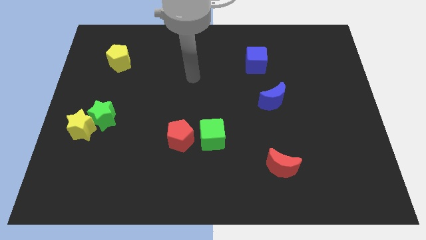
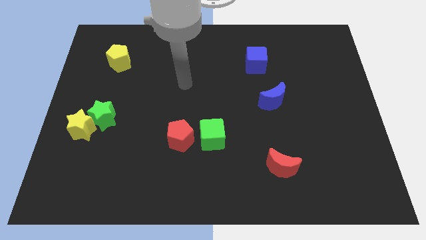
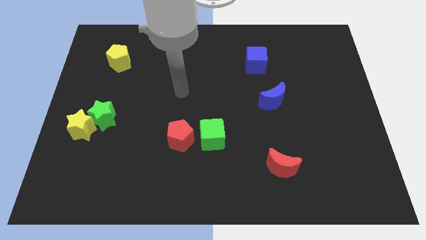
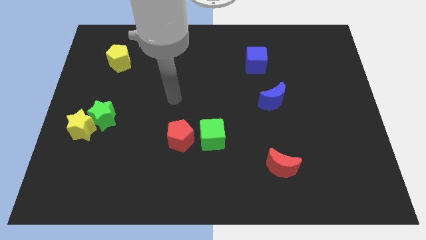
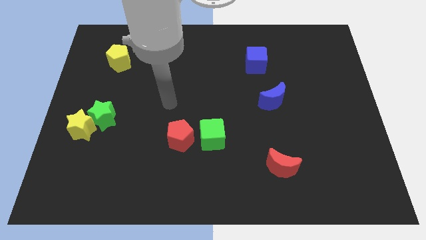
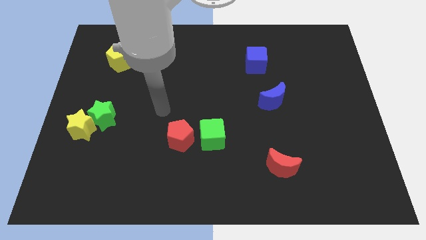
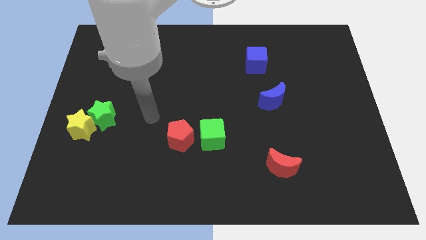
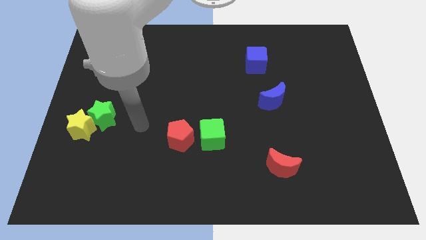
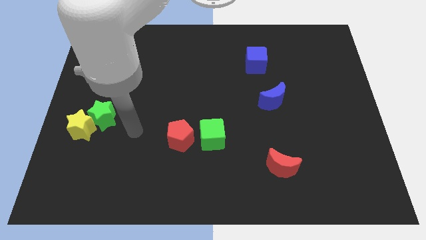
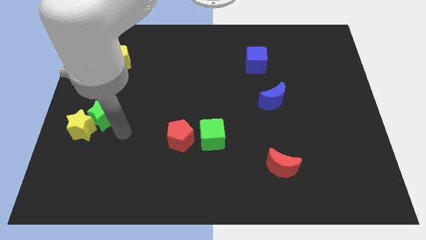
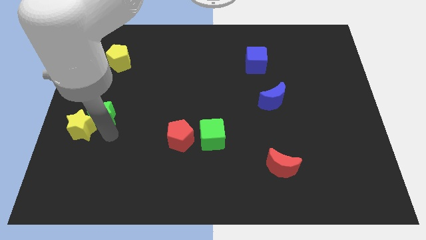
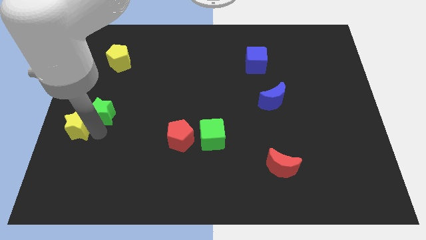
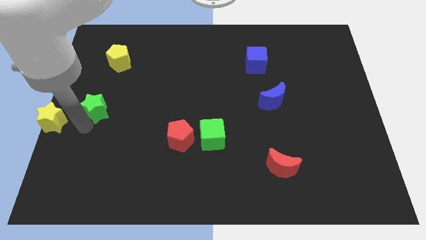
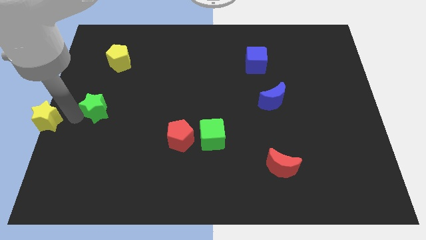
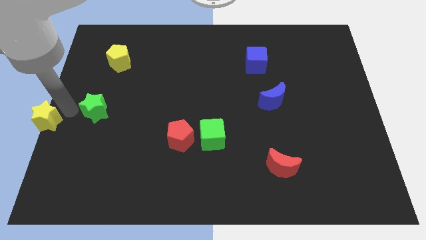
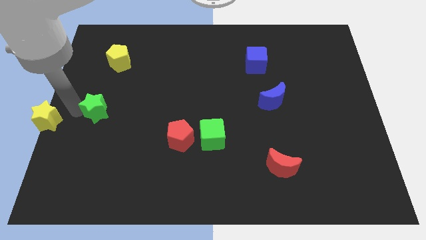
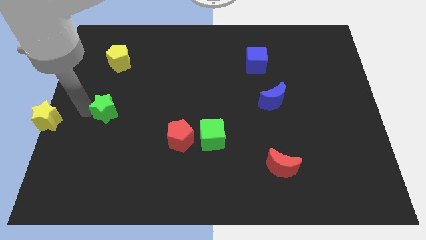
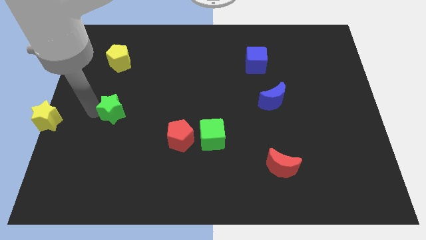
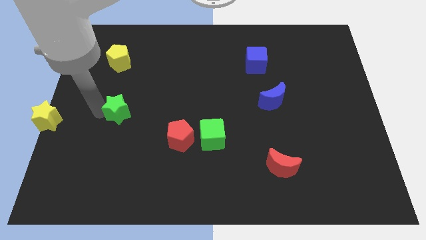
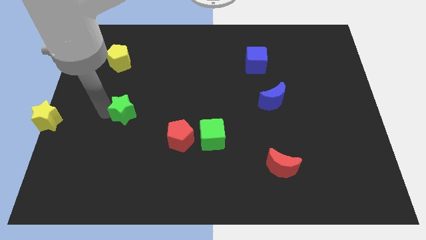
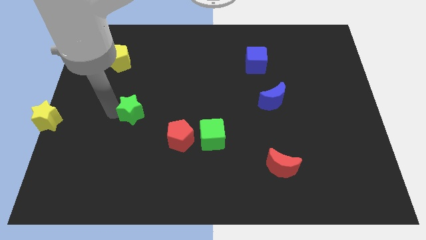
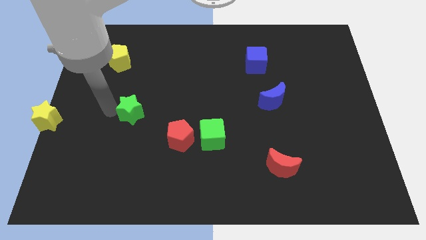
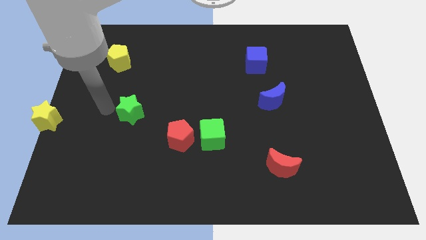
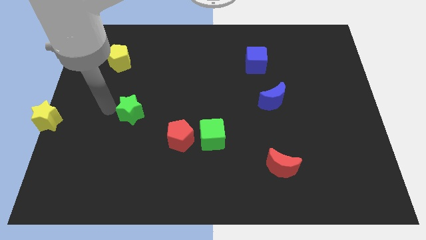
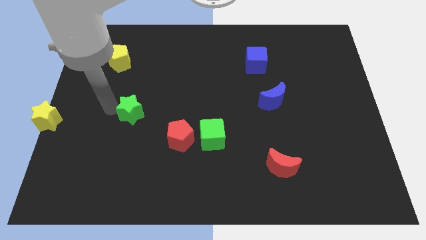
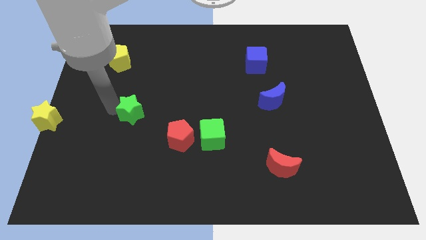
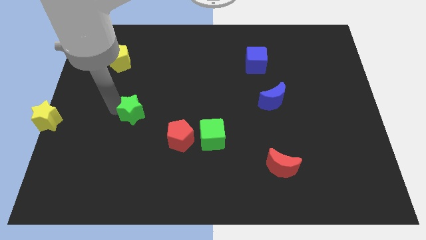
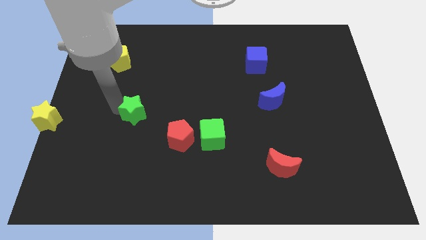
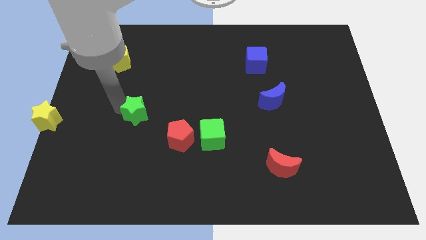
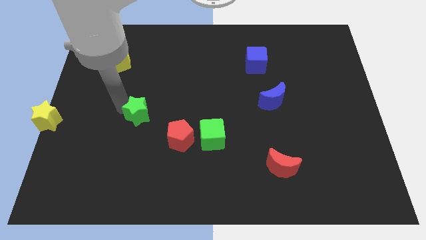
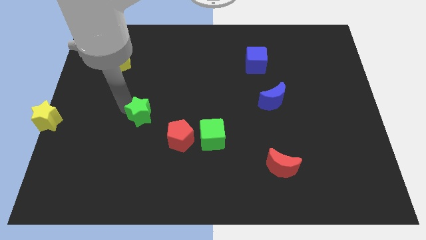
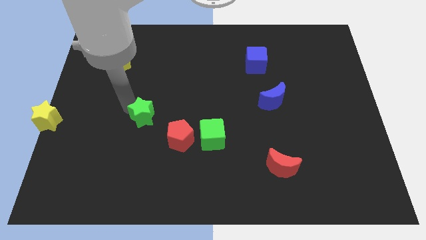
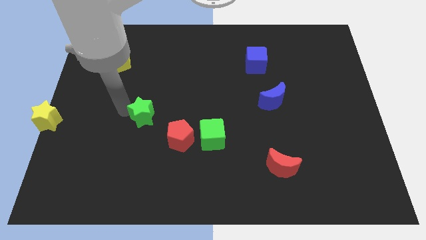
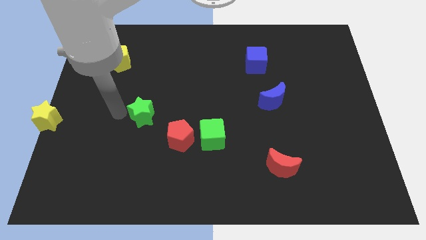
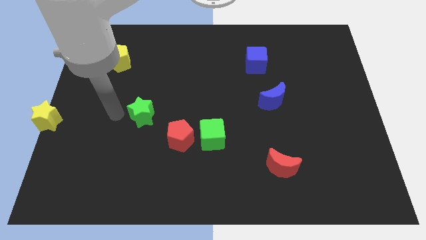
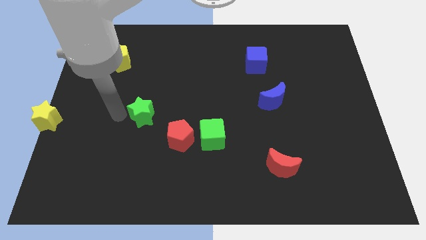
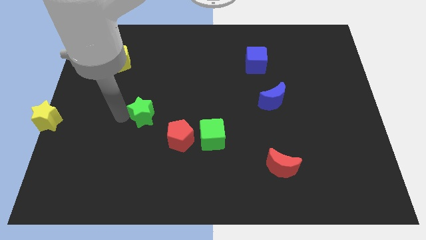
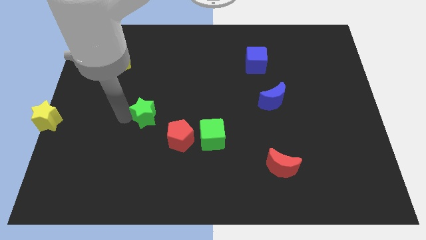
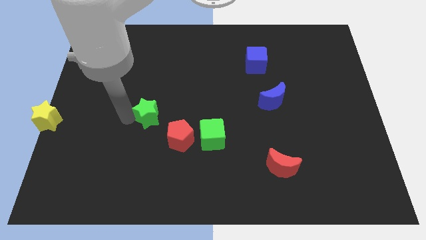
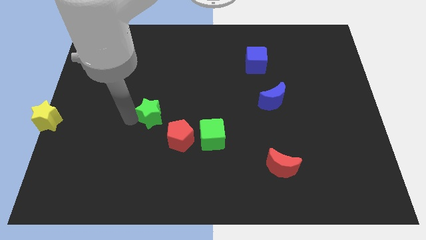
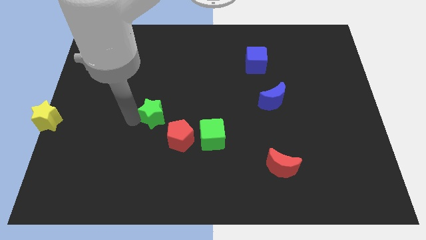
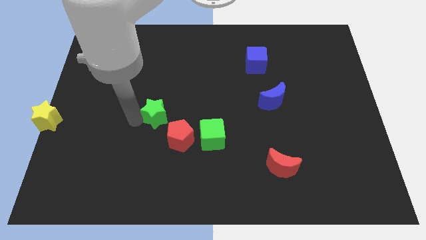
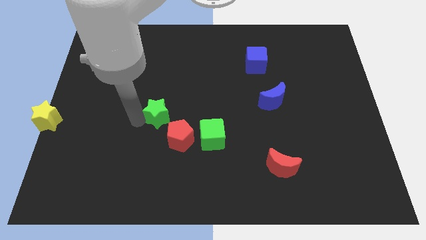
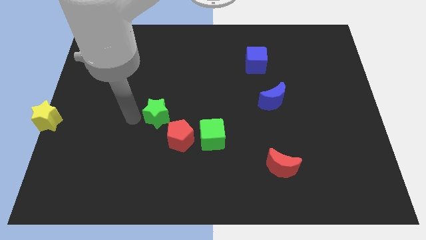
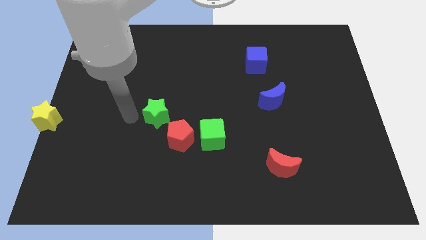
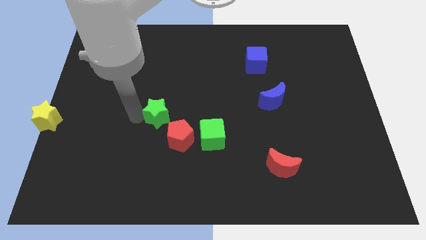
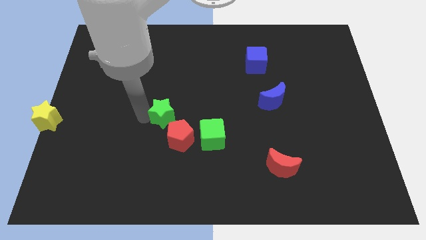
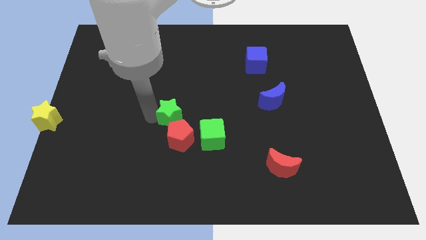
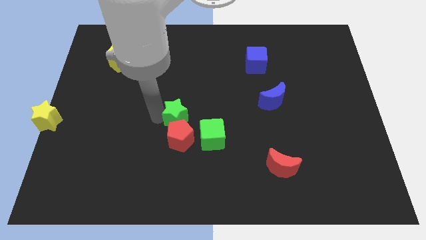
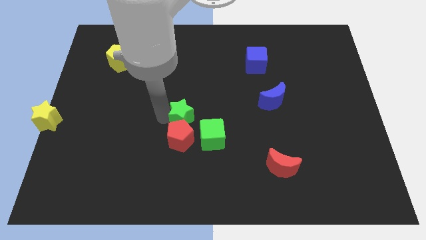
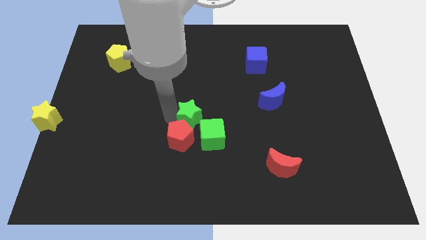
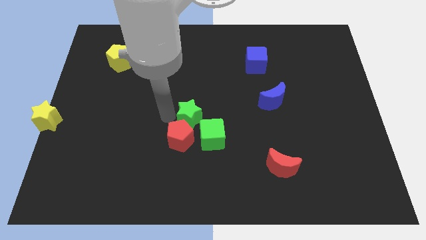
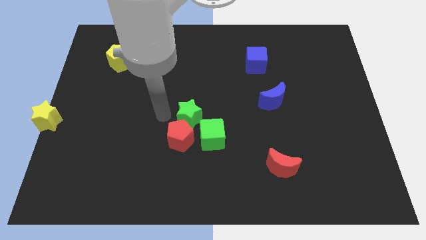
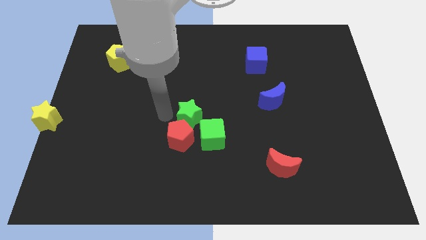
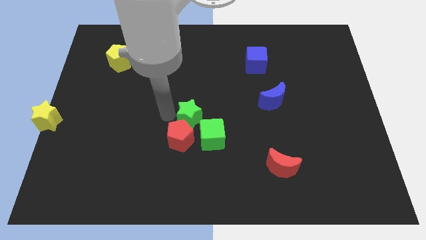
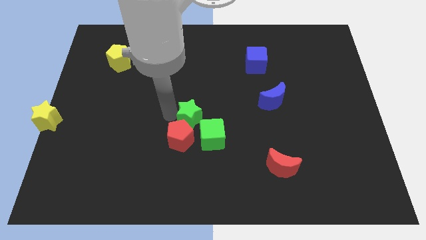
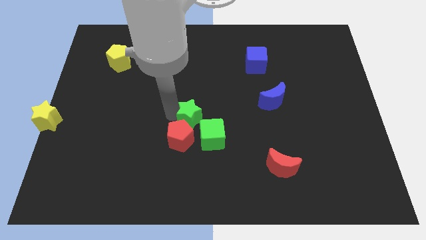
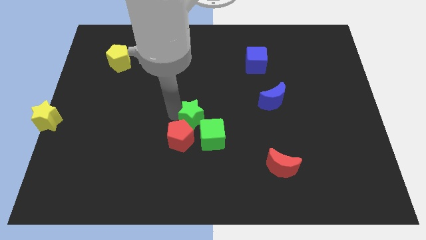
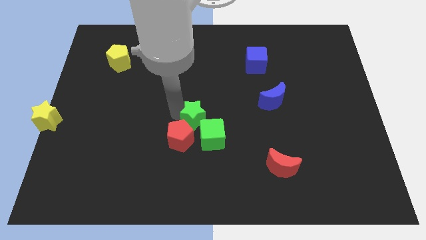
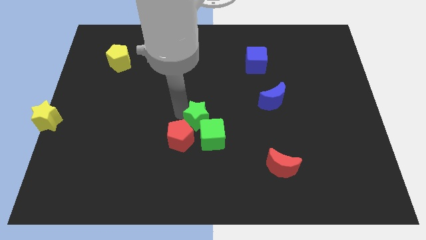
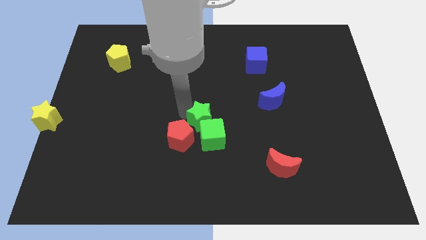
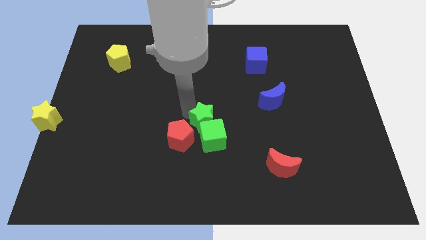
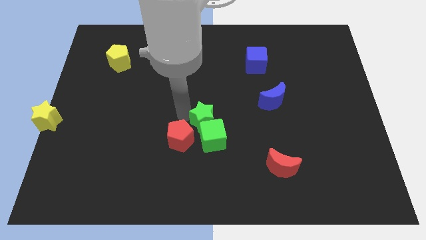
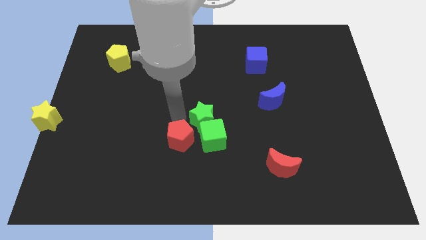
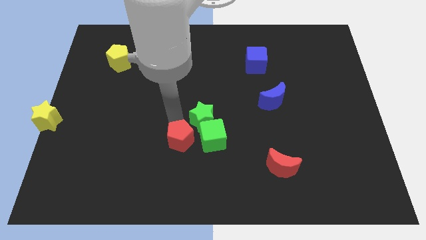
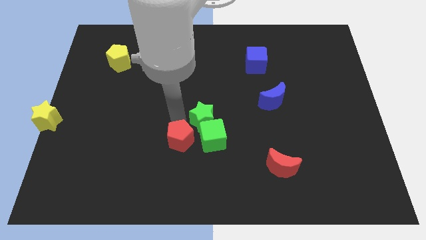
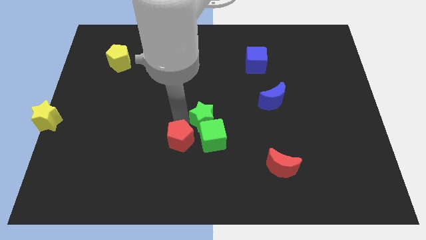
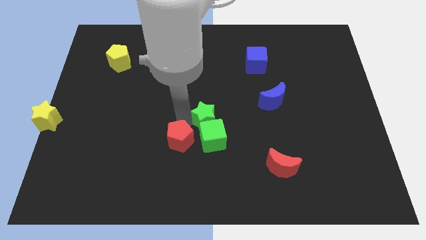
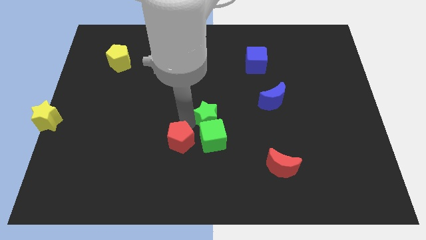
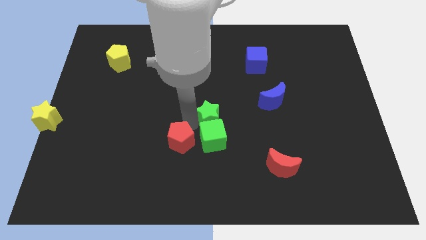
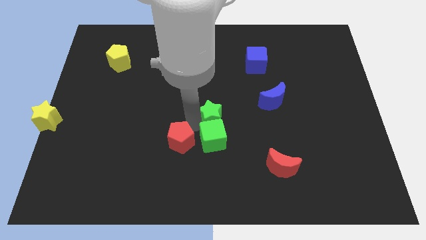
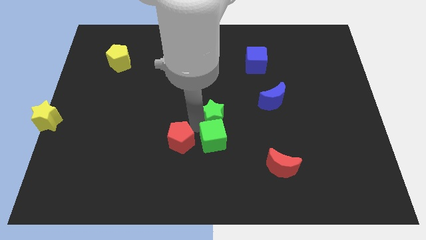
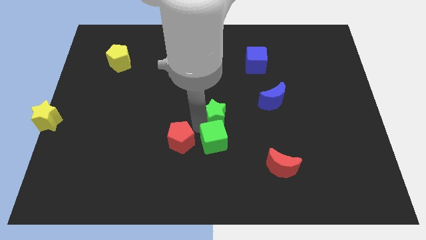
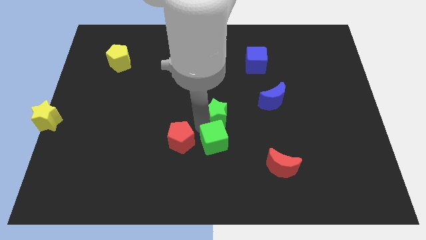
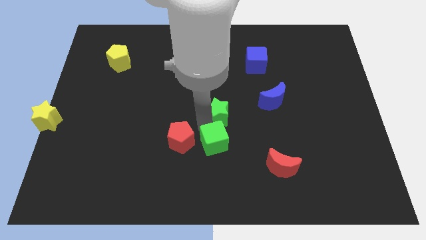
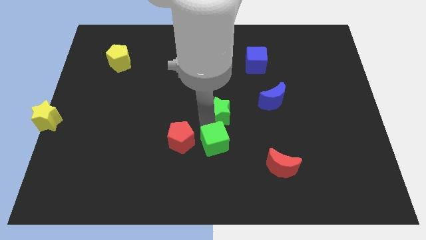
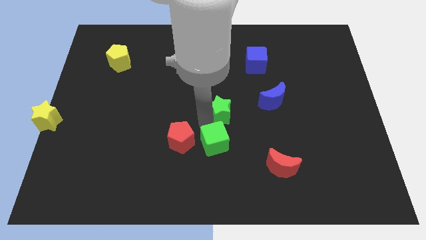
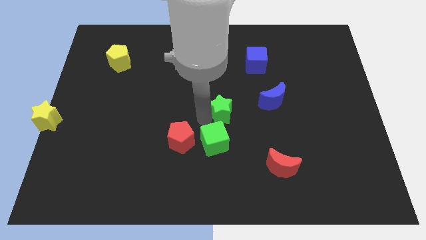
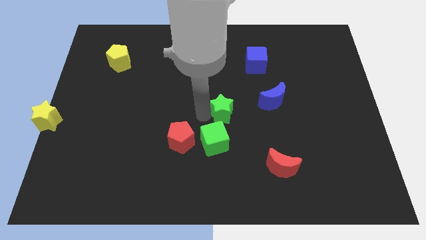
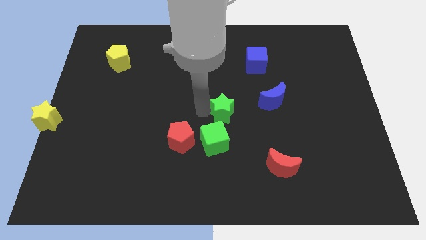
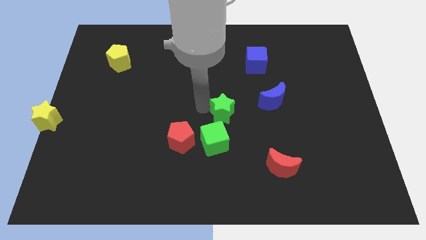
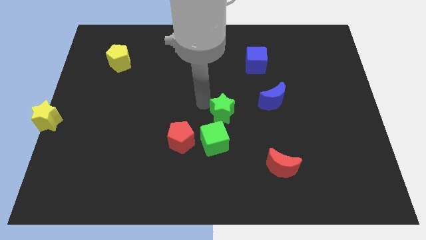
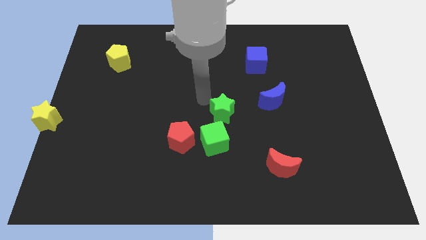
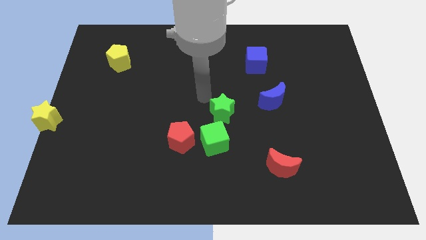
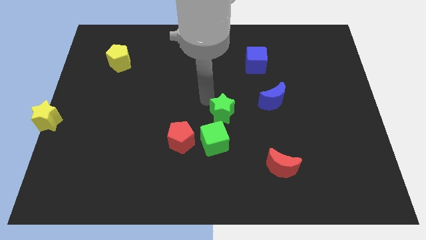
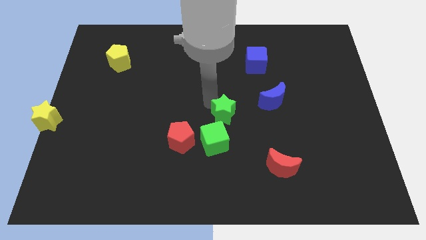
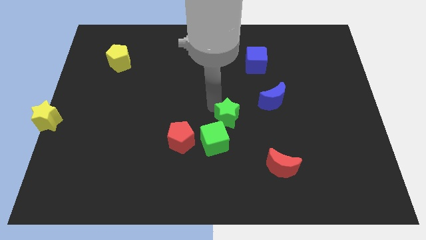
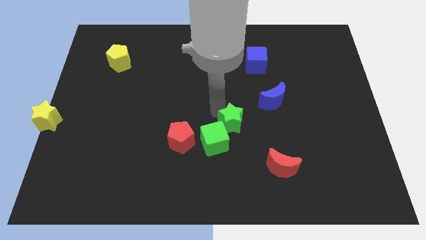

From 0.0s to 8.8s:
move the green star to the bottom left side of the blue moon
